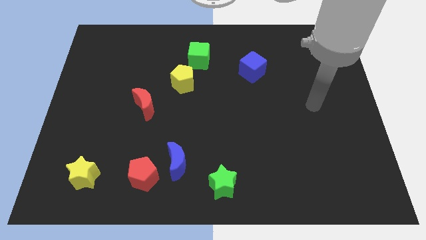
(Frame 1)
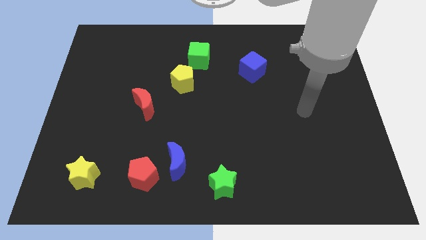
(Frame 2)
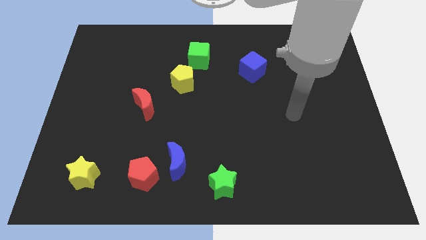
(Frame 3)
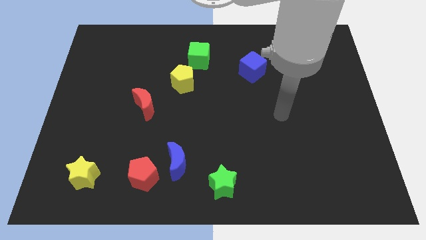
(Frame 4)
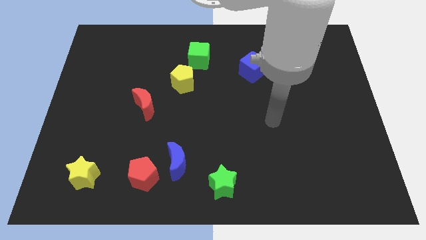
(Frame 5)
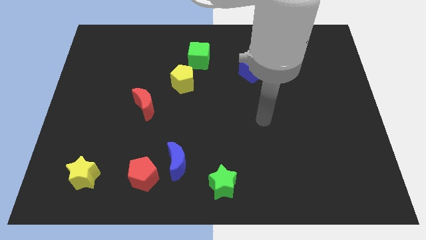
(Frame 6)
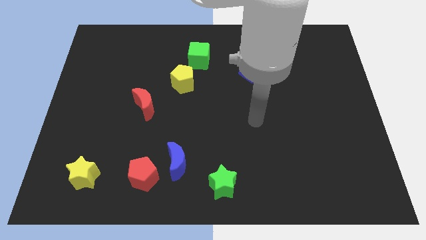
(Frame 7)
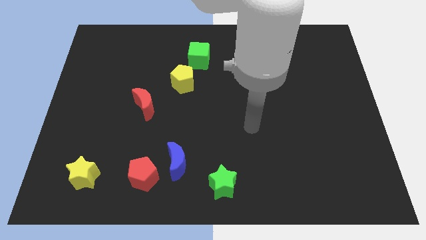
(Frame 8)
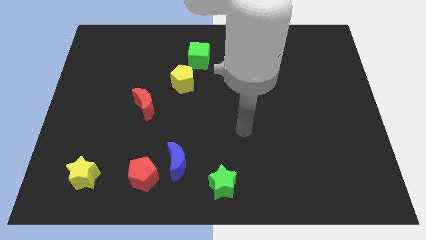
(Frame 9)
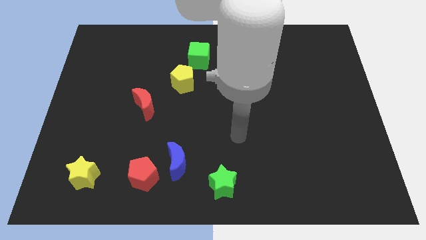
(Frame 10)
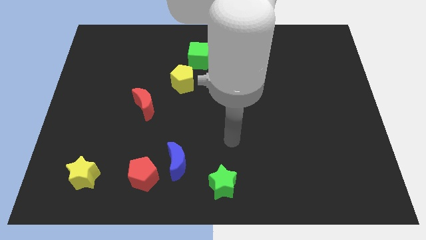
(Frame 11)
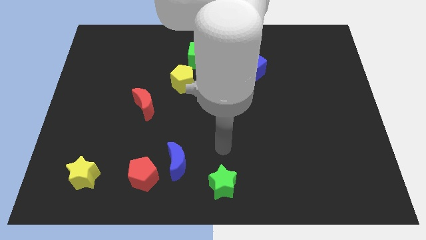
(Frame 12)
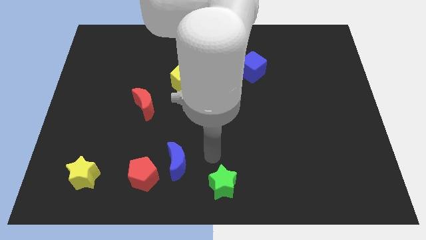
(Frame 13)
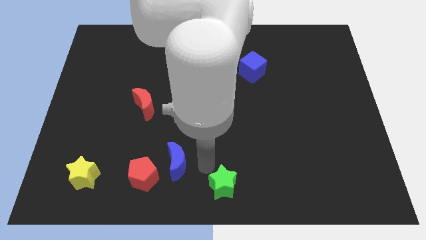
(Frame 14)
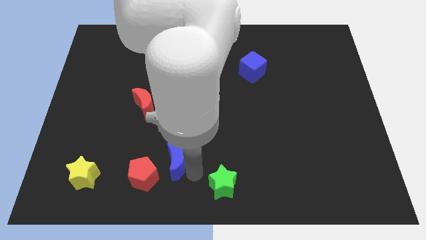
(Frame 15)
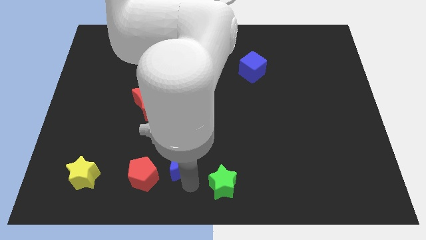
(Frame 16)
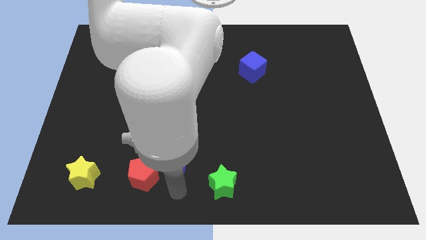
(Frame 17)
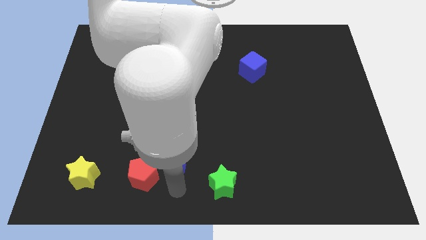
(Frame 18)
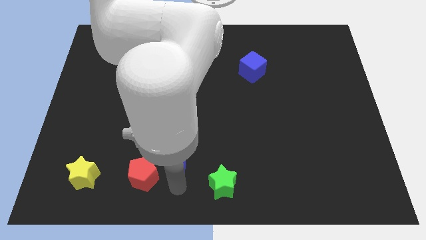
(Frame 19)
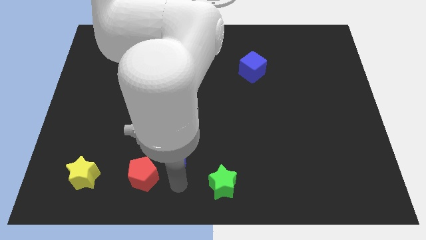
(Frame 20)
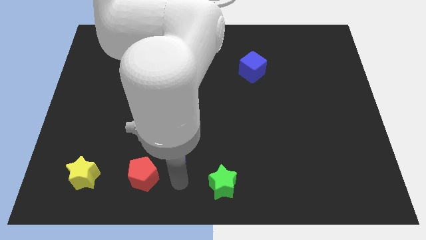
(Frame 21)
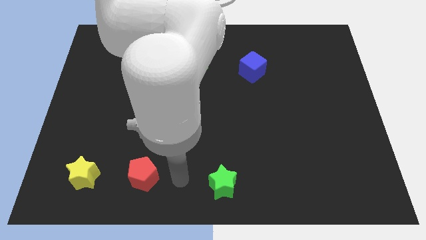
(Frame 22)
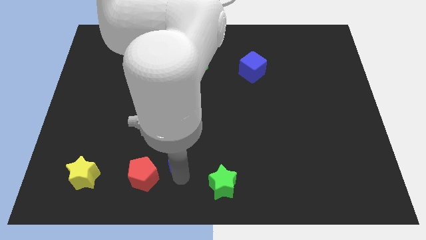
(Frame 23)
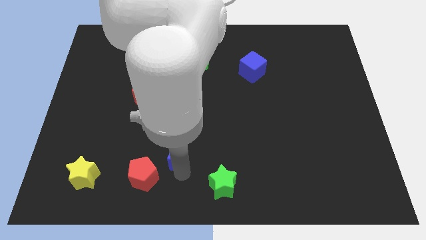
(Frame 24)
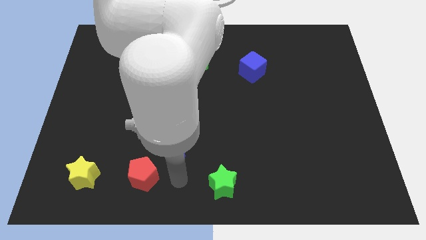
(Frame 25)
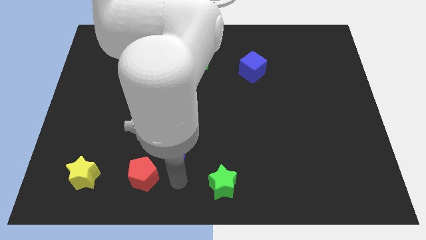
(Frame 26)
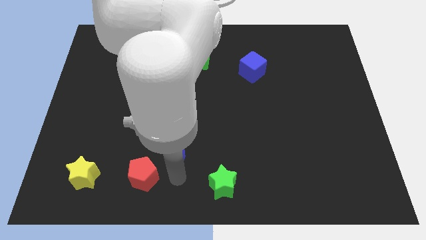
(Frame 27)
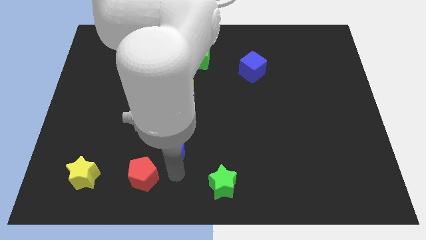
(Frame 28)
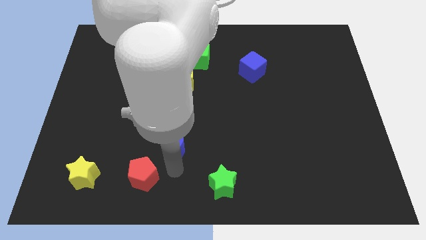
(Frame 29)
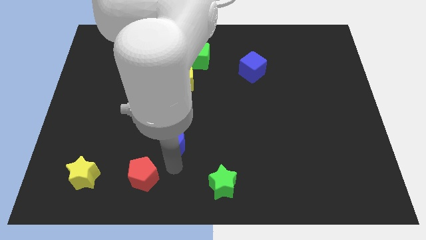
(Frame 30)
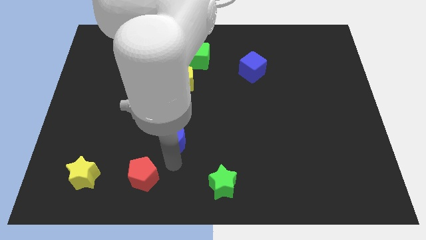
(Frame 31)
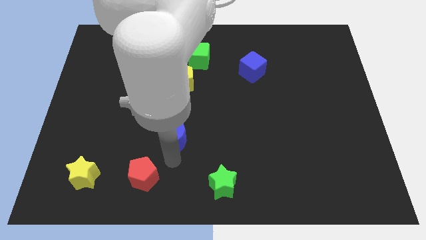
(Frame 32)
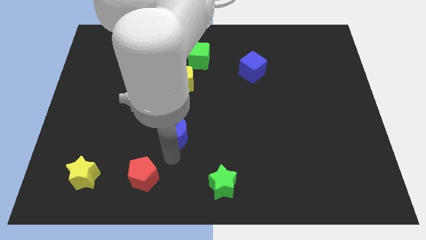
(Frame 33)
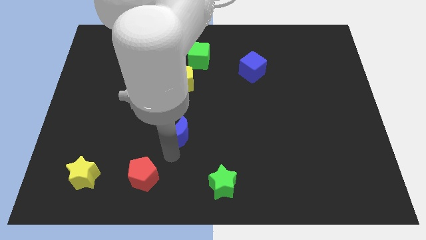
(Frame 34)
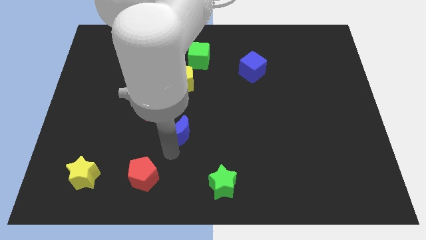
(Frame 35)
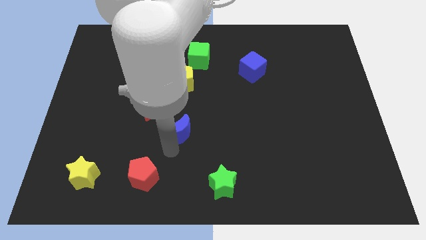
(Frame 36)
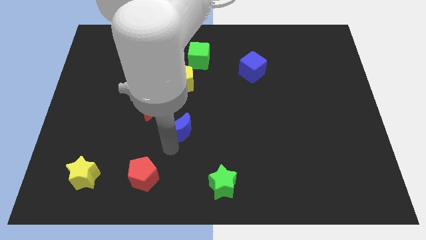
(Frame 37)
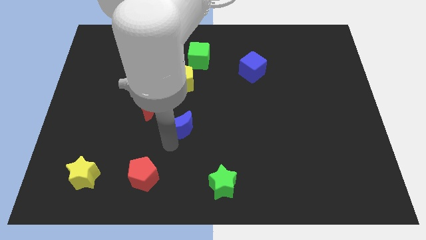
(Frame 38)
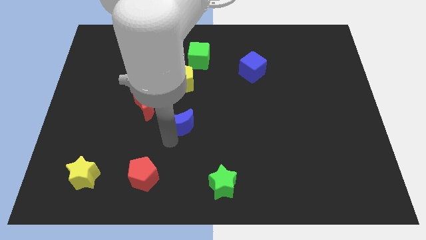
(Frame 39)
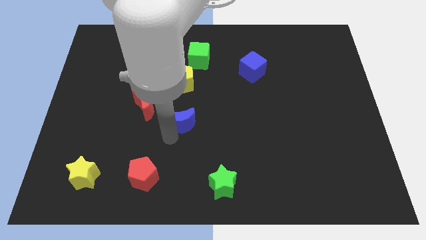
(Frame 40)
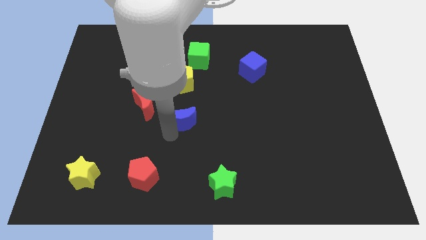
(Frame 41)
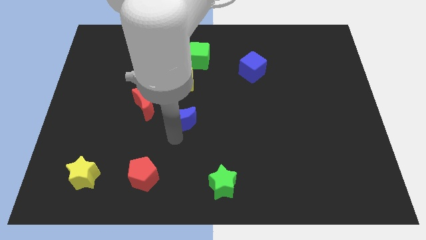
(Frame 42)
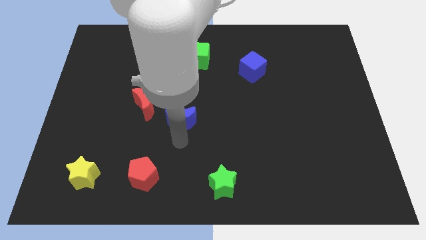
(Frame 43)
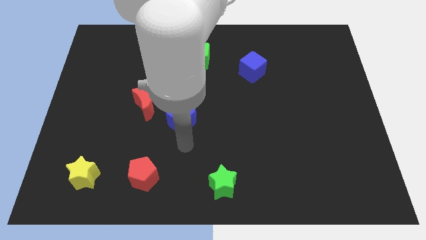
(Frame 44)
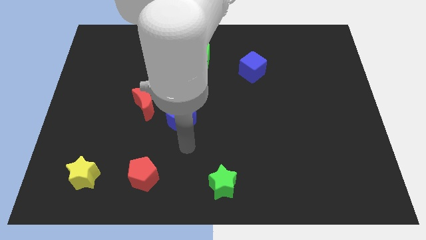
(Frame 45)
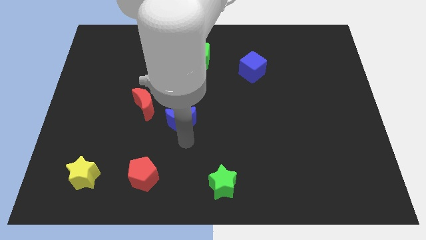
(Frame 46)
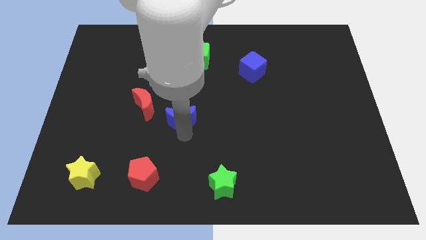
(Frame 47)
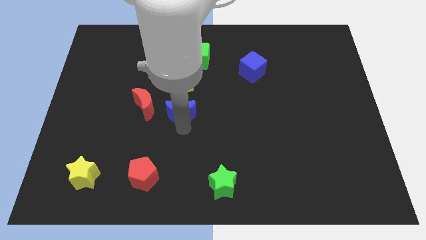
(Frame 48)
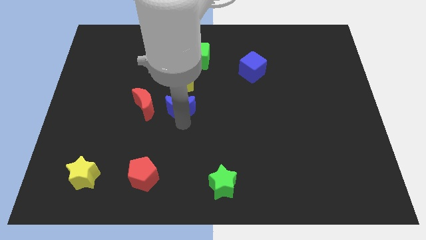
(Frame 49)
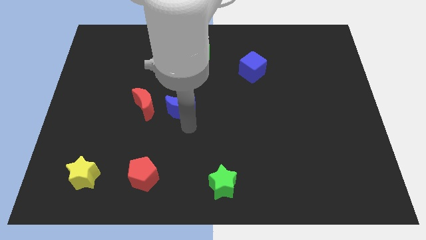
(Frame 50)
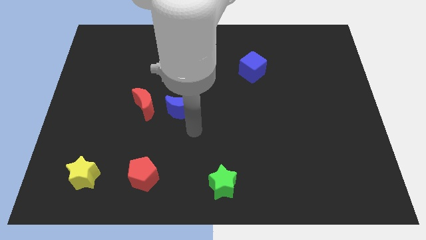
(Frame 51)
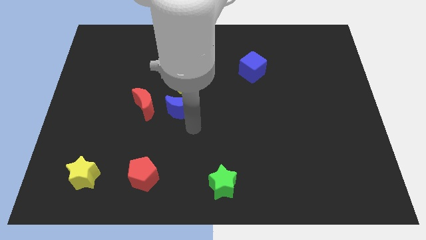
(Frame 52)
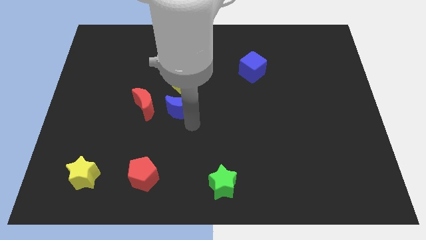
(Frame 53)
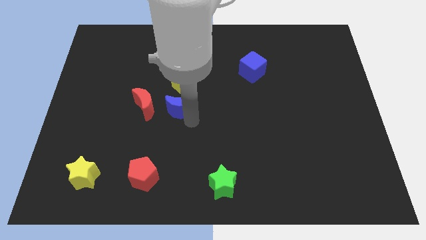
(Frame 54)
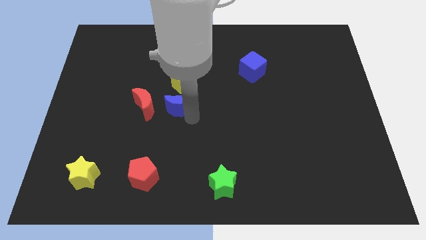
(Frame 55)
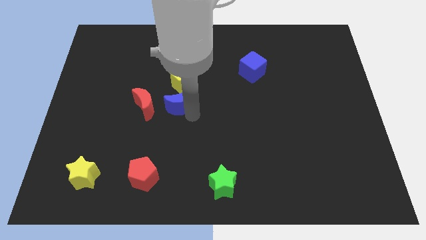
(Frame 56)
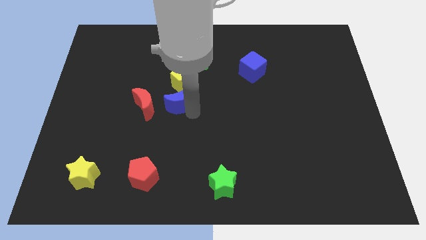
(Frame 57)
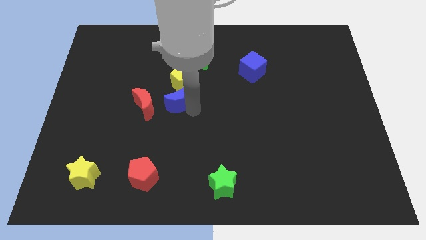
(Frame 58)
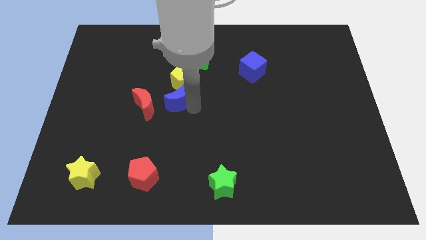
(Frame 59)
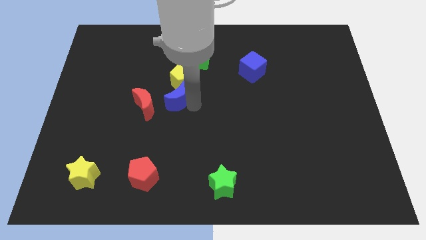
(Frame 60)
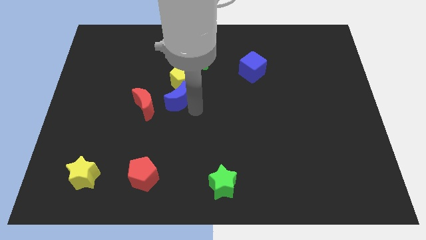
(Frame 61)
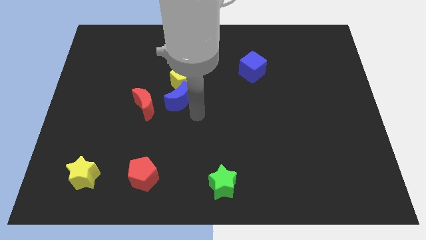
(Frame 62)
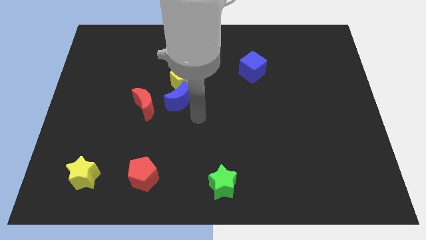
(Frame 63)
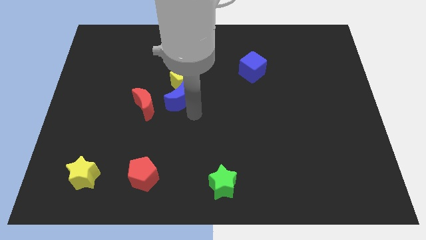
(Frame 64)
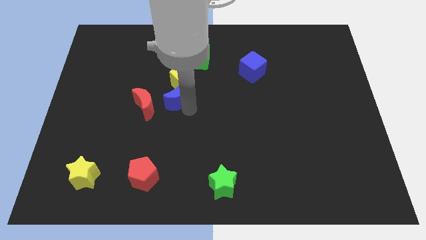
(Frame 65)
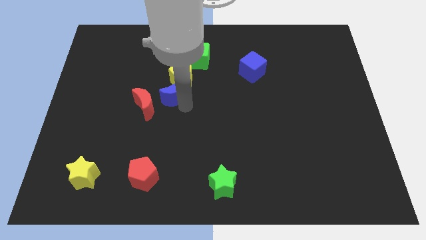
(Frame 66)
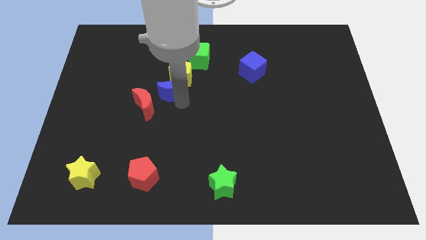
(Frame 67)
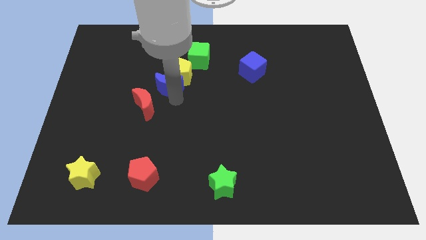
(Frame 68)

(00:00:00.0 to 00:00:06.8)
put the blue moon to the bottom left of the green cube
